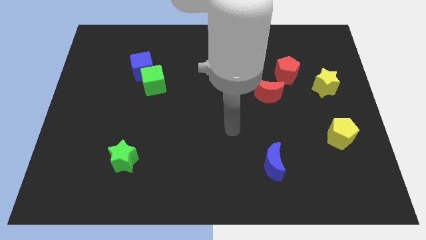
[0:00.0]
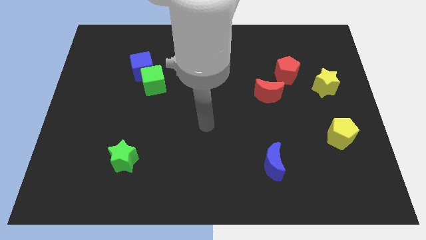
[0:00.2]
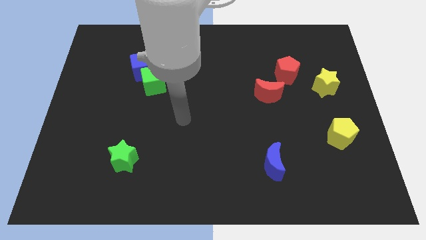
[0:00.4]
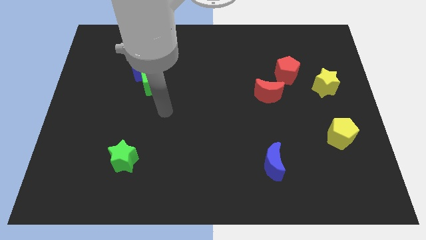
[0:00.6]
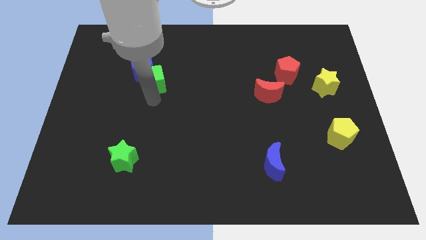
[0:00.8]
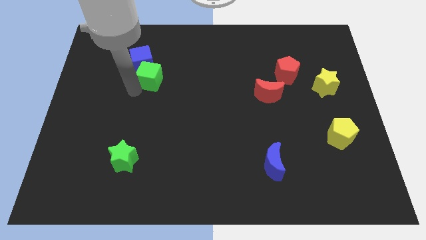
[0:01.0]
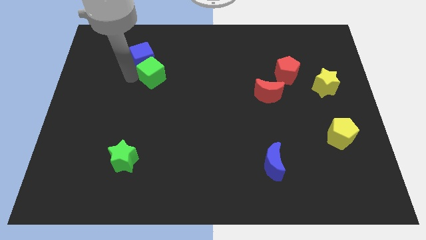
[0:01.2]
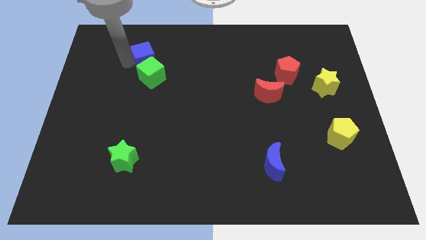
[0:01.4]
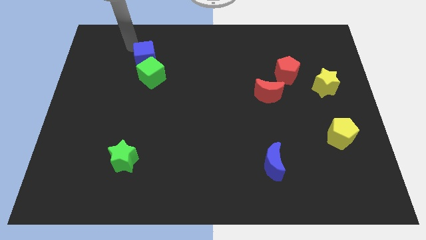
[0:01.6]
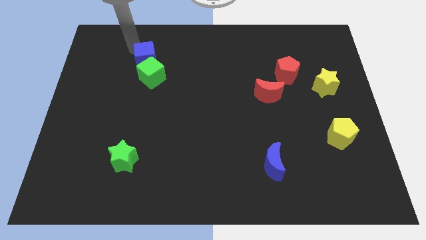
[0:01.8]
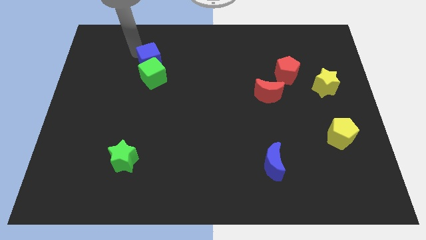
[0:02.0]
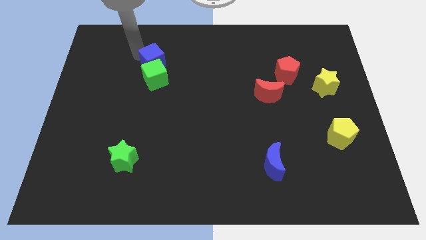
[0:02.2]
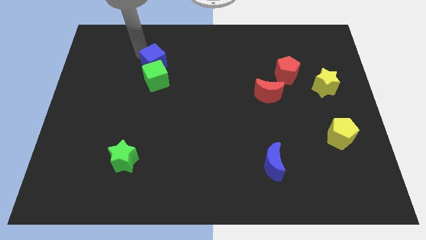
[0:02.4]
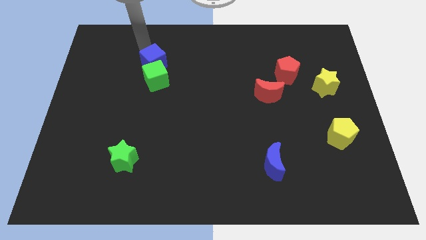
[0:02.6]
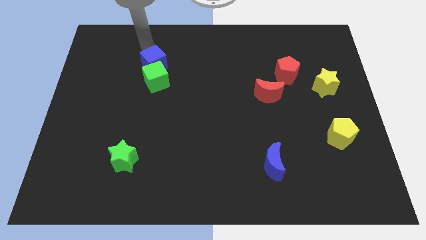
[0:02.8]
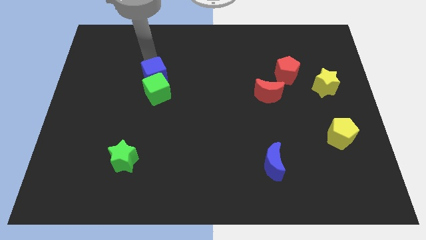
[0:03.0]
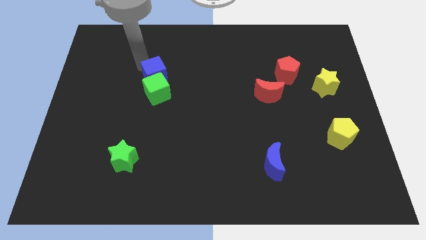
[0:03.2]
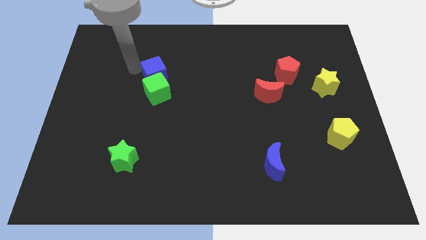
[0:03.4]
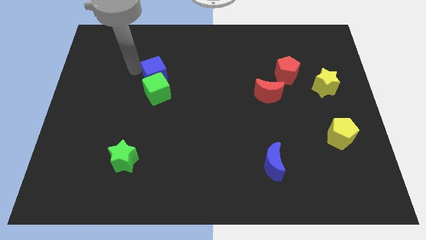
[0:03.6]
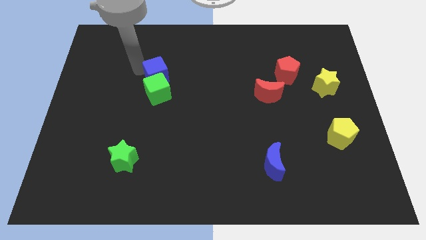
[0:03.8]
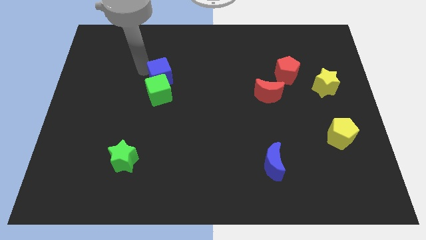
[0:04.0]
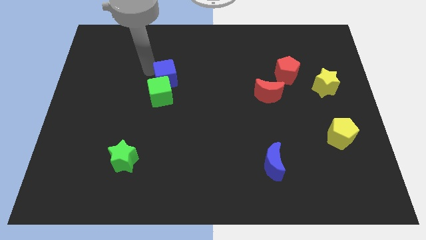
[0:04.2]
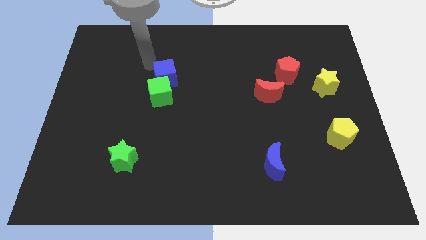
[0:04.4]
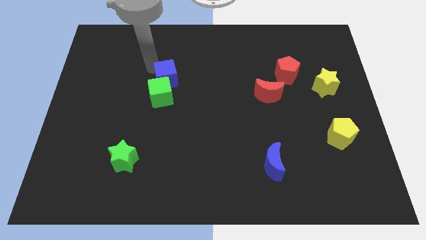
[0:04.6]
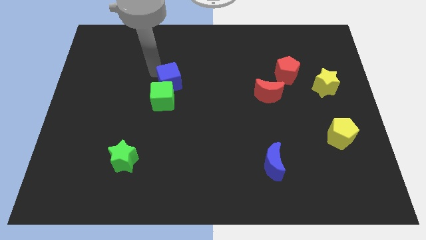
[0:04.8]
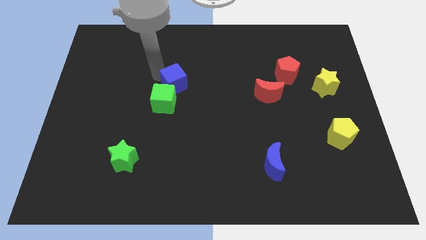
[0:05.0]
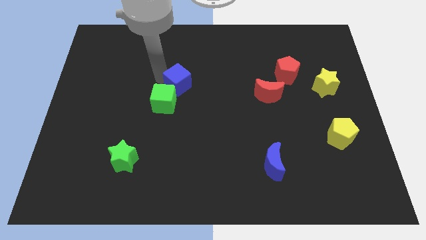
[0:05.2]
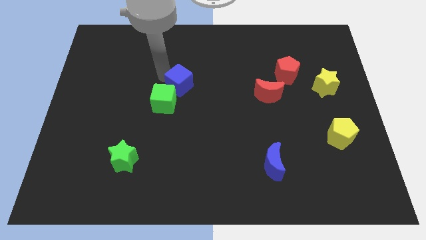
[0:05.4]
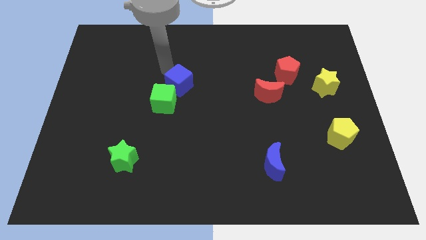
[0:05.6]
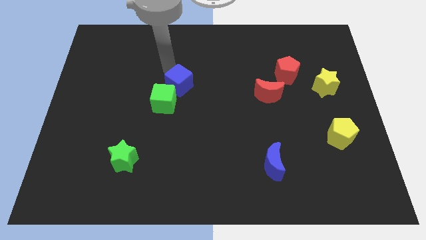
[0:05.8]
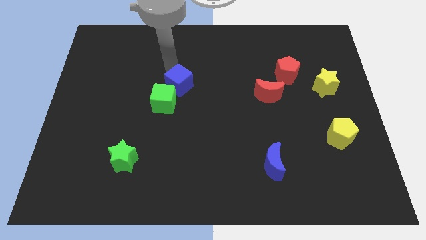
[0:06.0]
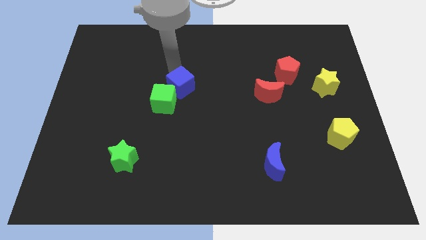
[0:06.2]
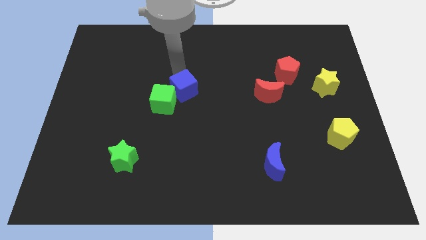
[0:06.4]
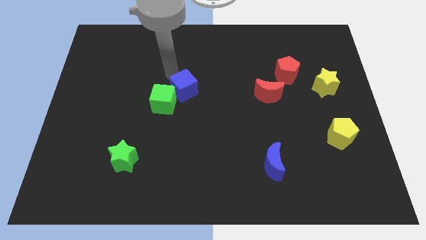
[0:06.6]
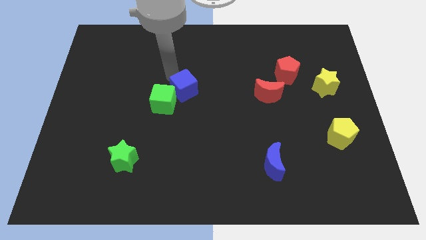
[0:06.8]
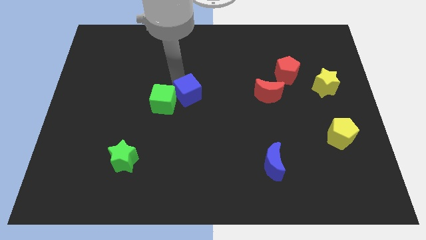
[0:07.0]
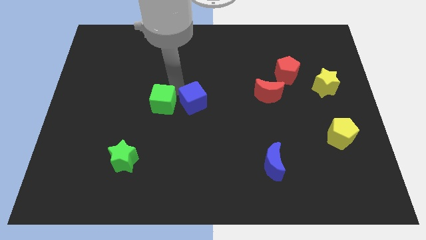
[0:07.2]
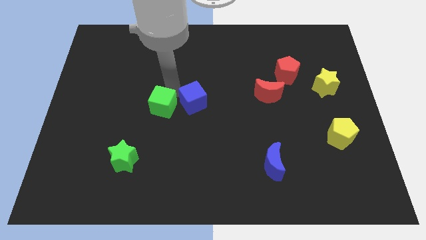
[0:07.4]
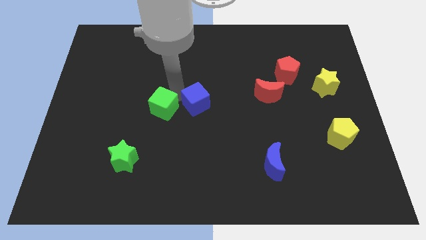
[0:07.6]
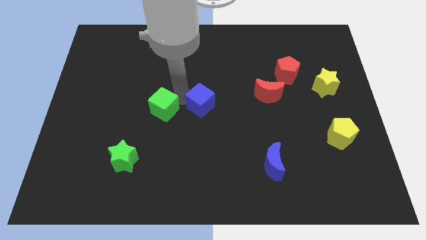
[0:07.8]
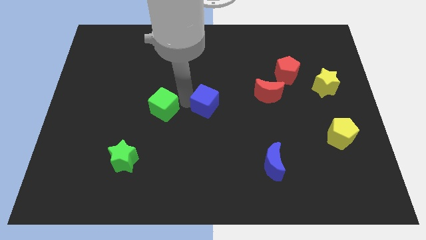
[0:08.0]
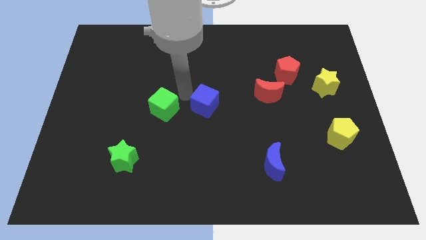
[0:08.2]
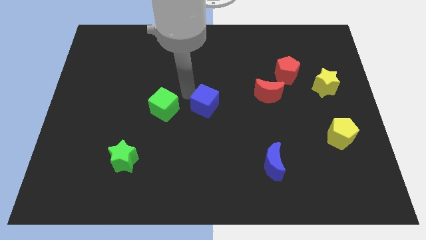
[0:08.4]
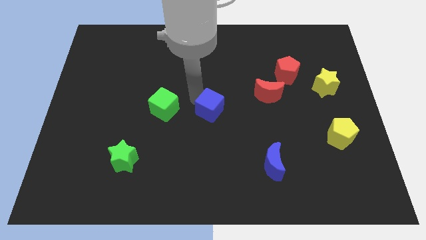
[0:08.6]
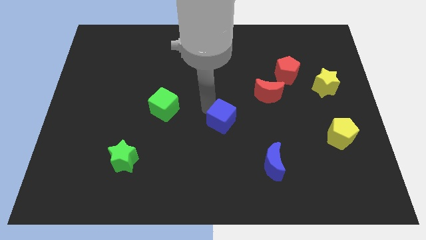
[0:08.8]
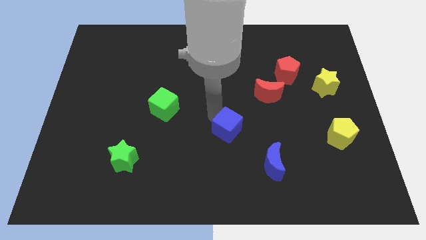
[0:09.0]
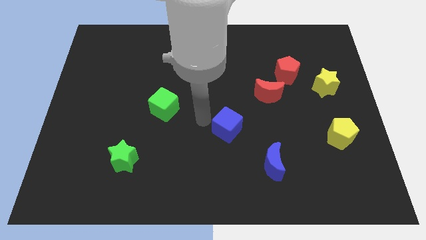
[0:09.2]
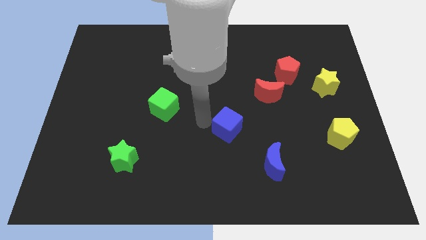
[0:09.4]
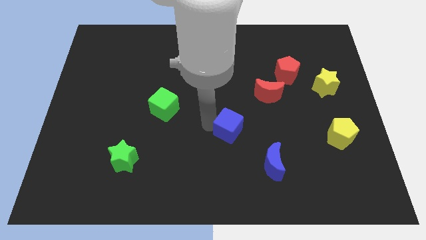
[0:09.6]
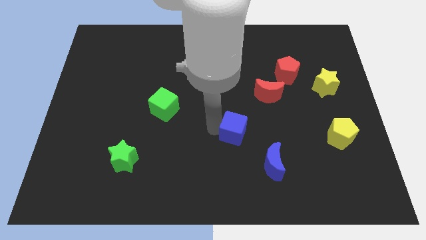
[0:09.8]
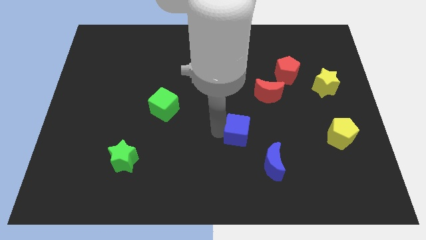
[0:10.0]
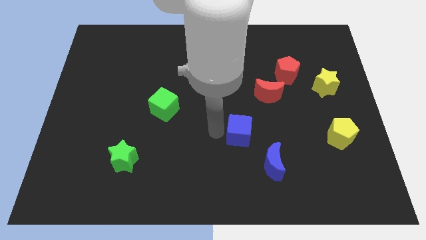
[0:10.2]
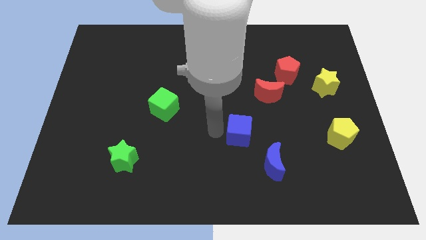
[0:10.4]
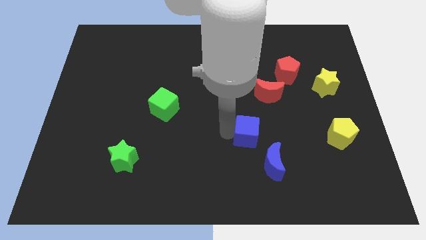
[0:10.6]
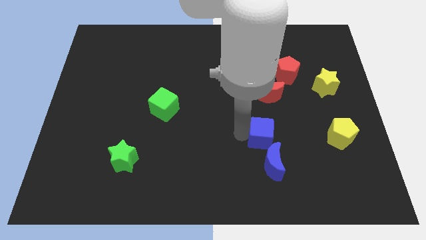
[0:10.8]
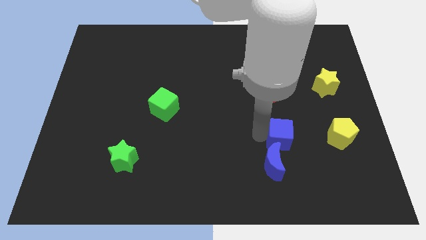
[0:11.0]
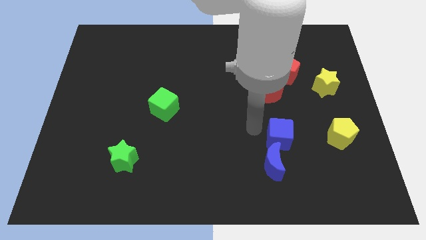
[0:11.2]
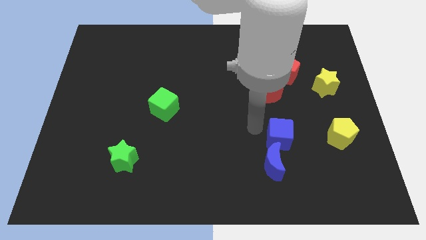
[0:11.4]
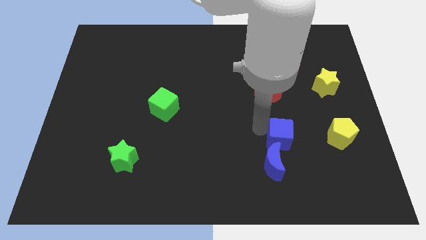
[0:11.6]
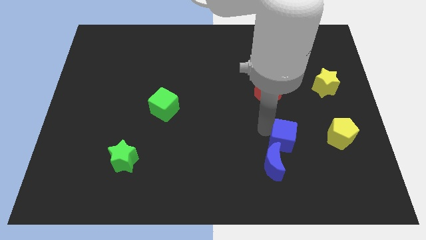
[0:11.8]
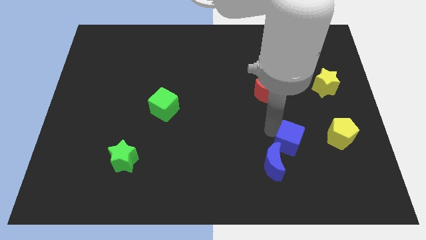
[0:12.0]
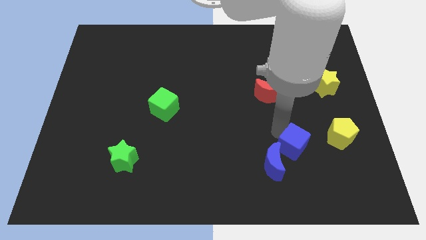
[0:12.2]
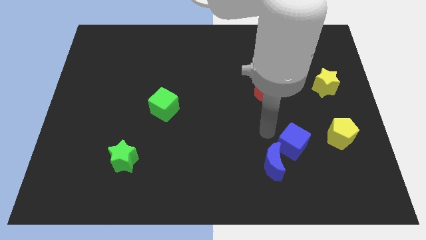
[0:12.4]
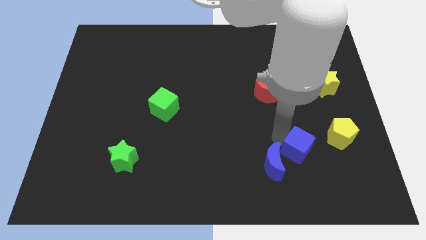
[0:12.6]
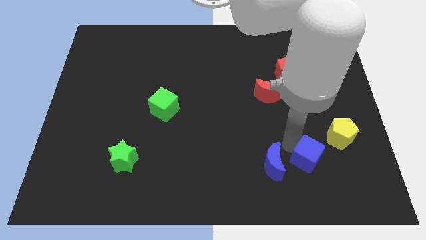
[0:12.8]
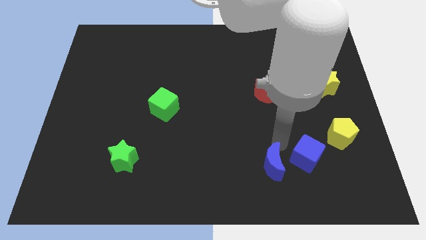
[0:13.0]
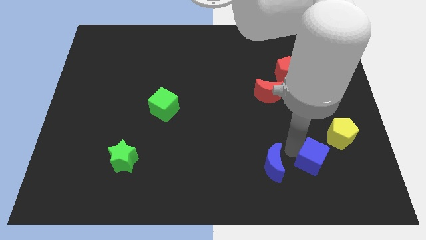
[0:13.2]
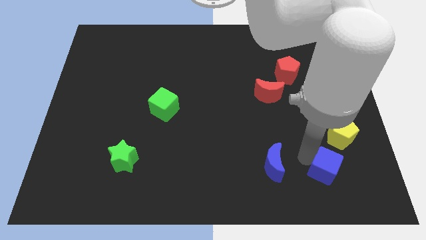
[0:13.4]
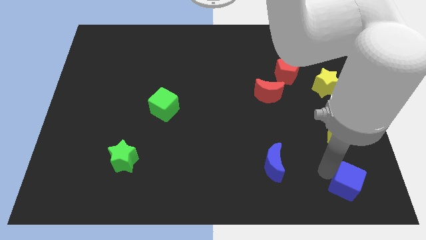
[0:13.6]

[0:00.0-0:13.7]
put the blue cube to the bottom right

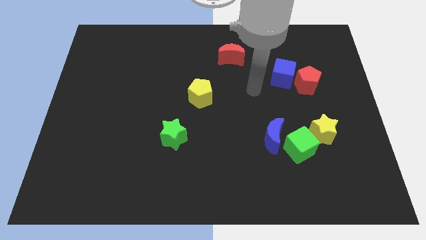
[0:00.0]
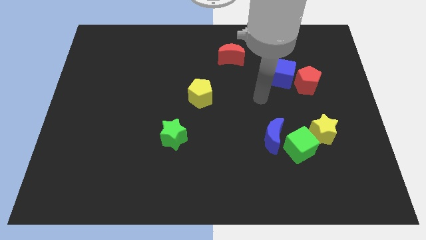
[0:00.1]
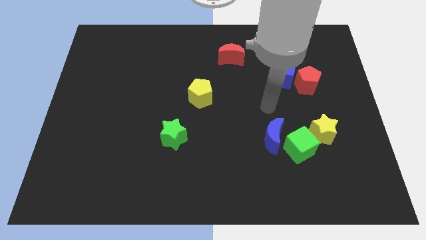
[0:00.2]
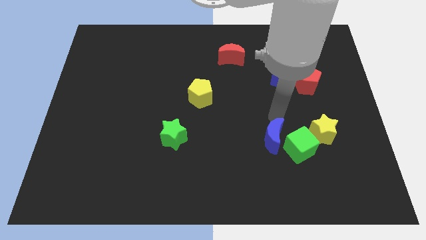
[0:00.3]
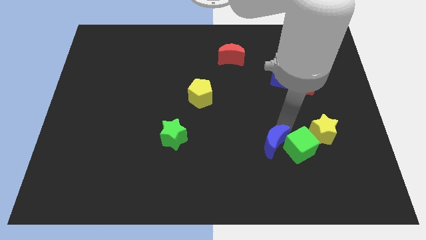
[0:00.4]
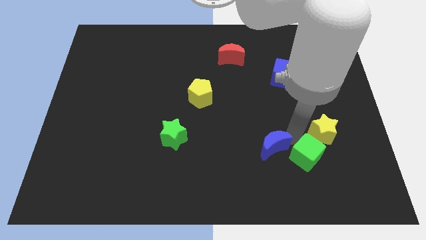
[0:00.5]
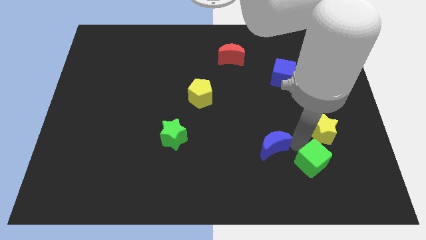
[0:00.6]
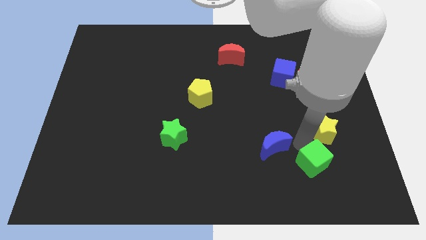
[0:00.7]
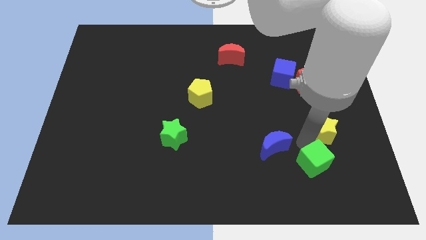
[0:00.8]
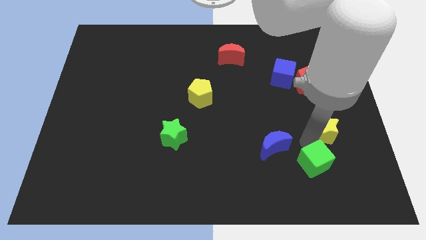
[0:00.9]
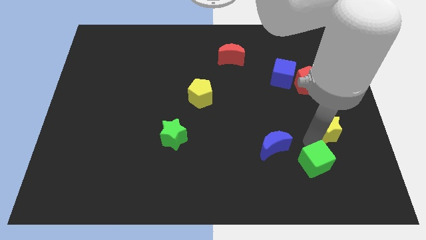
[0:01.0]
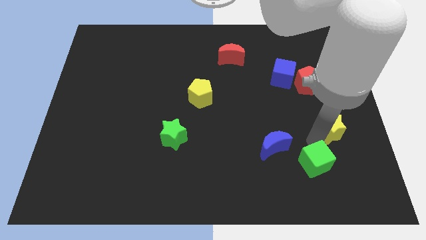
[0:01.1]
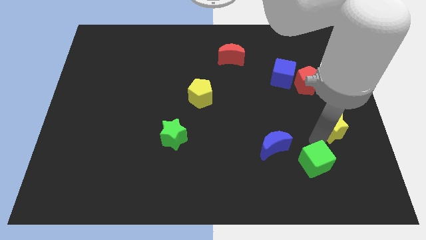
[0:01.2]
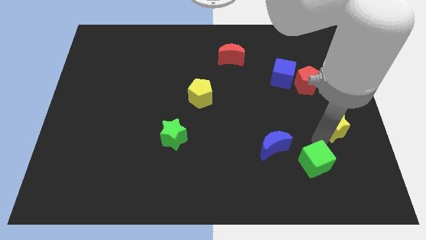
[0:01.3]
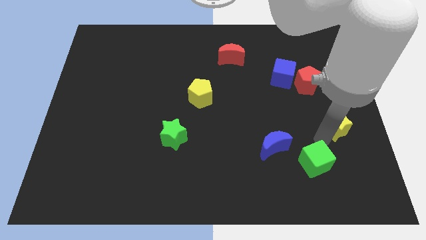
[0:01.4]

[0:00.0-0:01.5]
push the yellow star to the right side of the board
